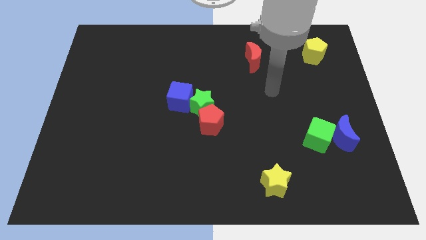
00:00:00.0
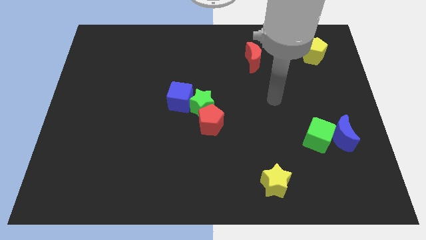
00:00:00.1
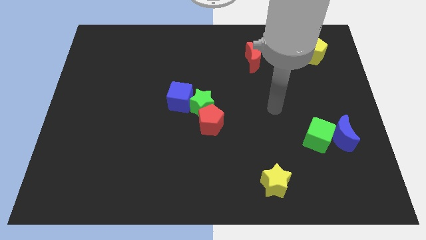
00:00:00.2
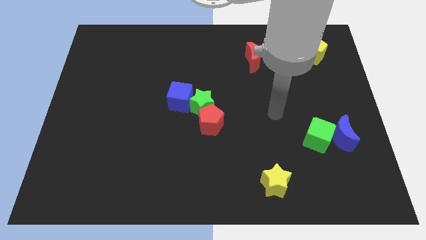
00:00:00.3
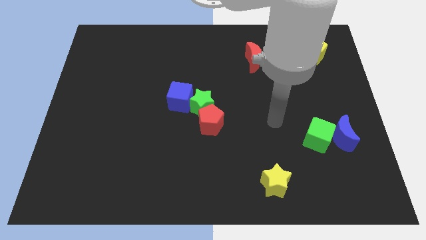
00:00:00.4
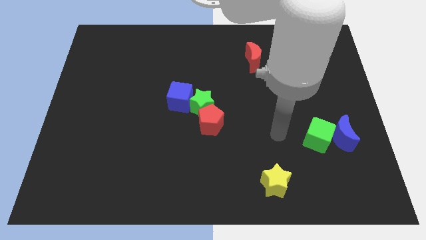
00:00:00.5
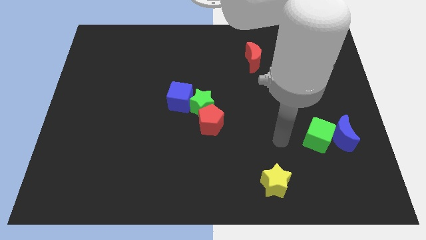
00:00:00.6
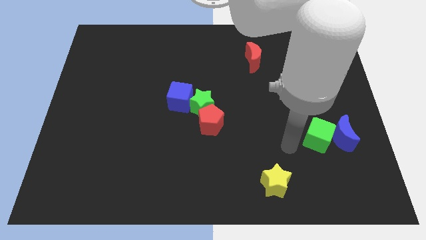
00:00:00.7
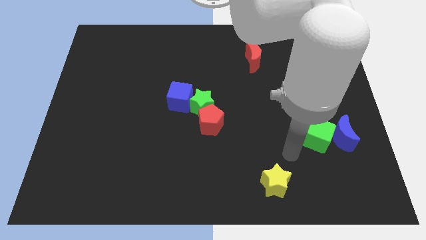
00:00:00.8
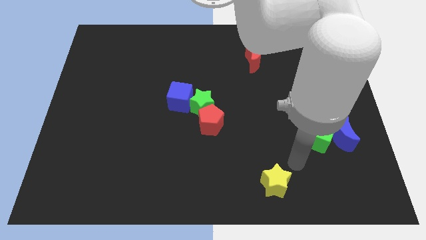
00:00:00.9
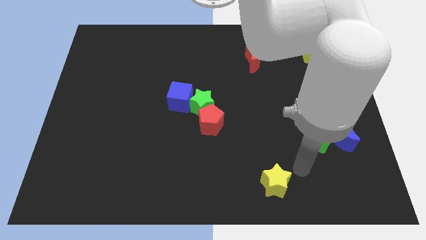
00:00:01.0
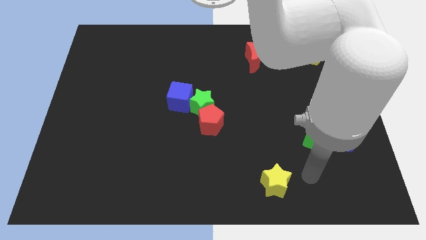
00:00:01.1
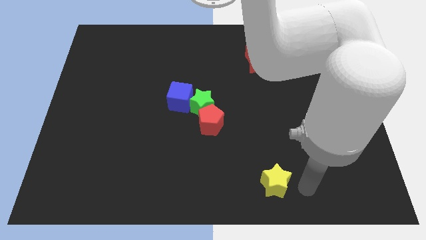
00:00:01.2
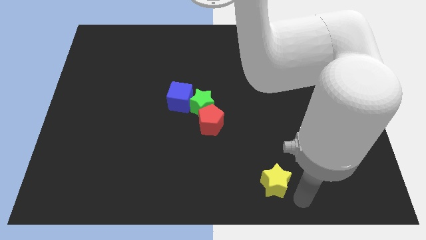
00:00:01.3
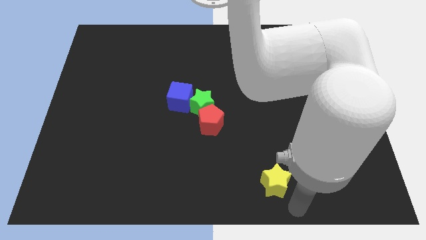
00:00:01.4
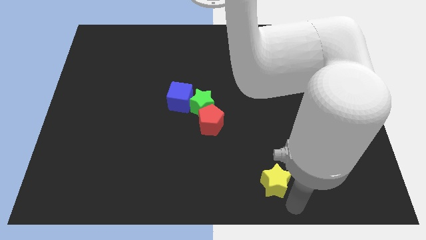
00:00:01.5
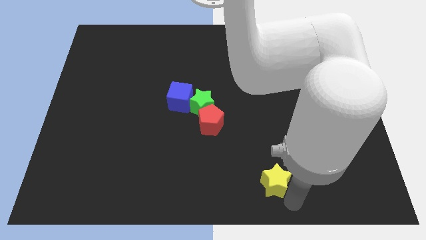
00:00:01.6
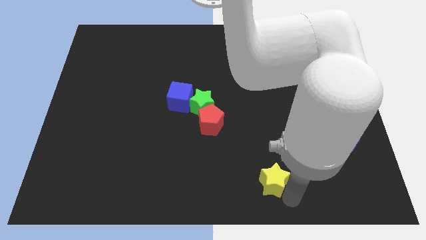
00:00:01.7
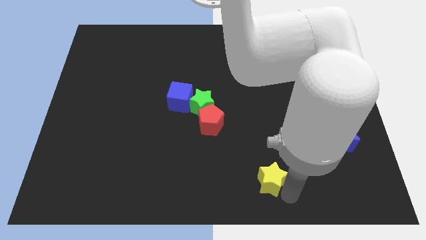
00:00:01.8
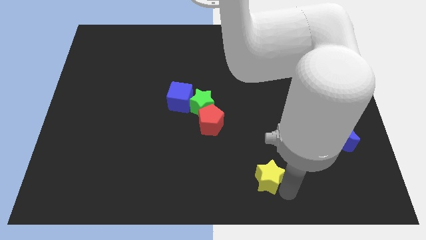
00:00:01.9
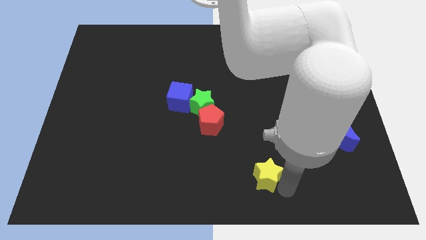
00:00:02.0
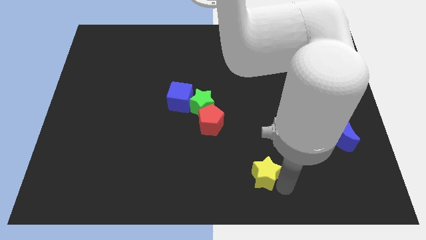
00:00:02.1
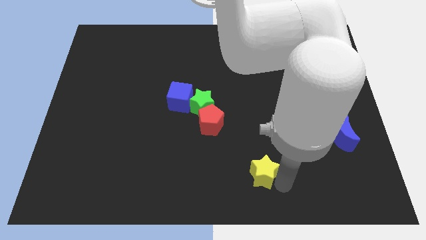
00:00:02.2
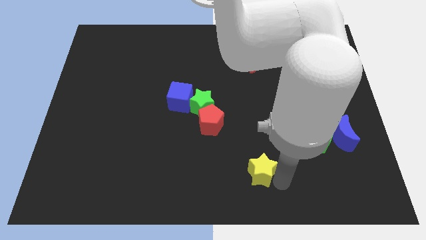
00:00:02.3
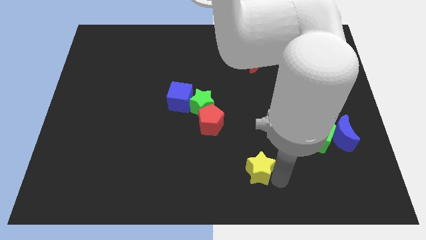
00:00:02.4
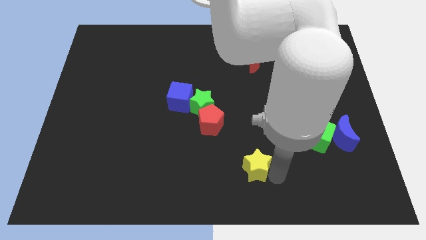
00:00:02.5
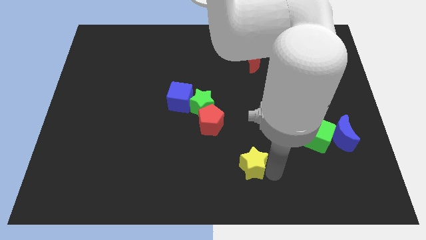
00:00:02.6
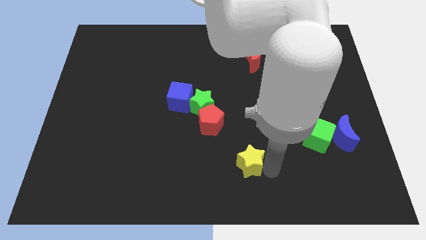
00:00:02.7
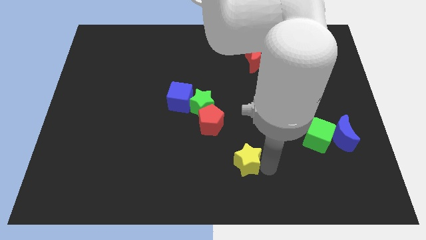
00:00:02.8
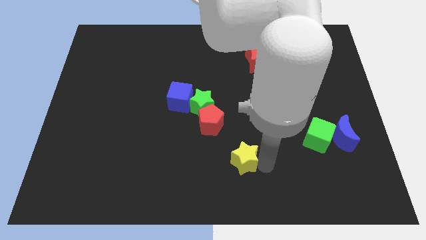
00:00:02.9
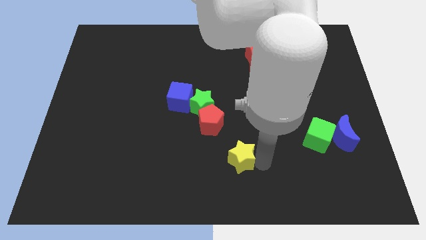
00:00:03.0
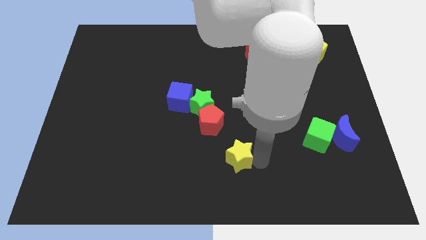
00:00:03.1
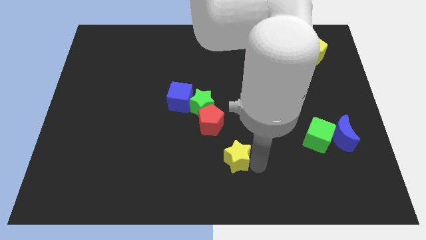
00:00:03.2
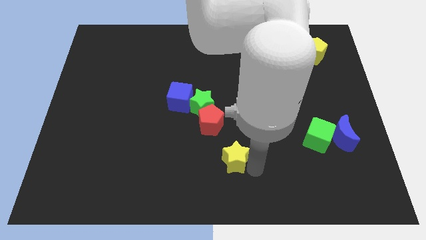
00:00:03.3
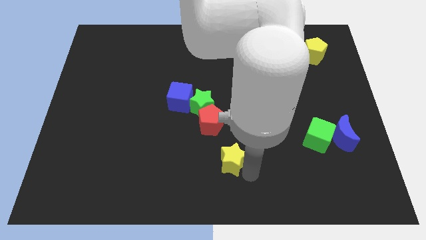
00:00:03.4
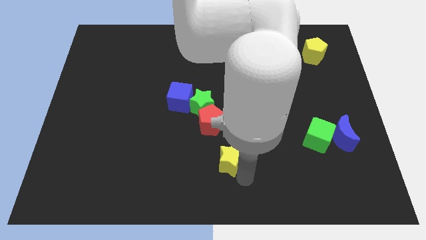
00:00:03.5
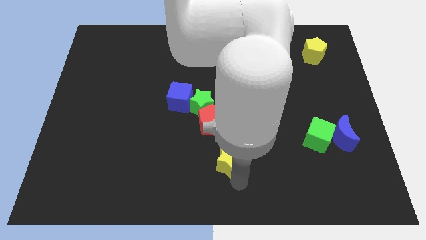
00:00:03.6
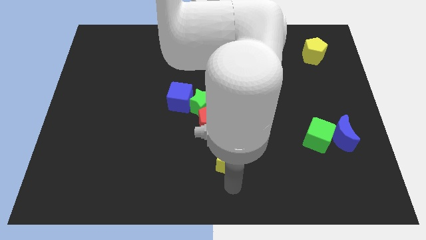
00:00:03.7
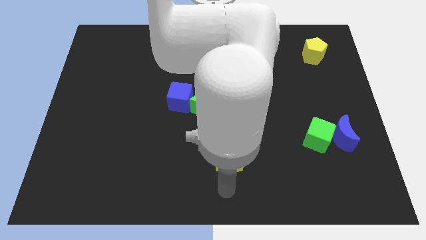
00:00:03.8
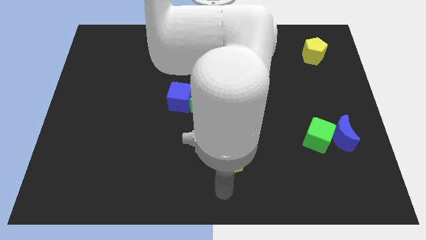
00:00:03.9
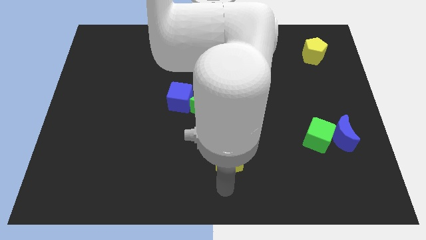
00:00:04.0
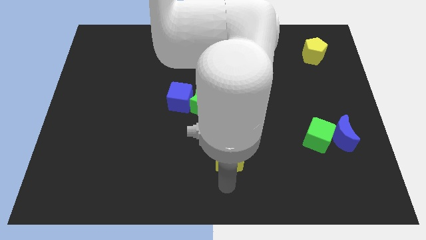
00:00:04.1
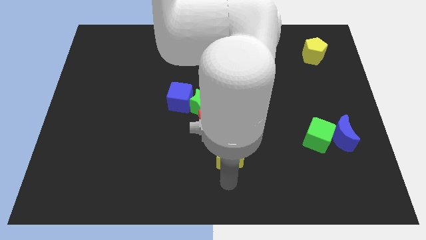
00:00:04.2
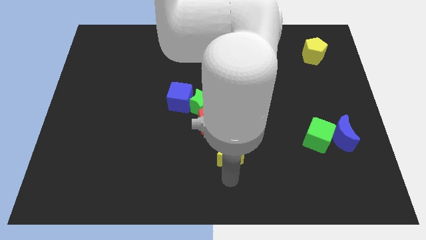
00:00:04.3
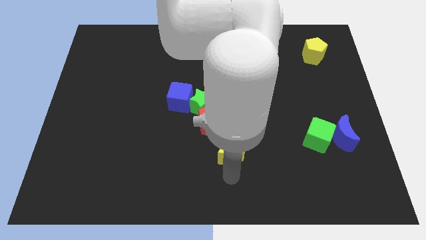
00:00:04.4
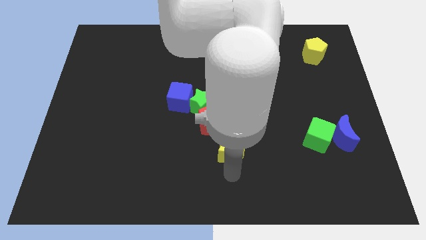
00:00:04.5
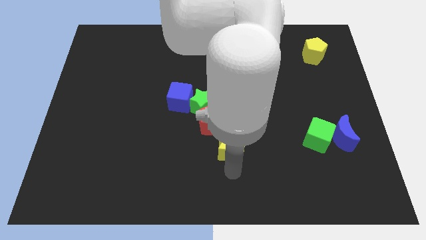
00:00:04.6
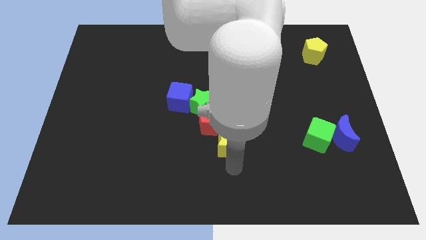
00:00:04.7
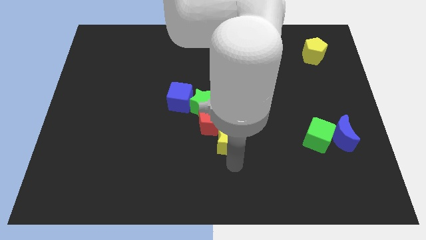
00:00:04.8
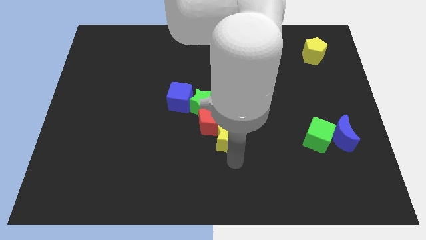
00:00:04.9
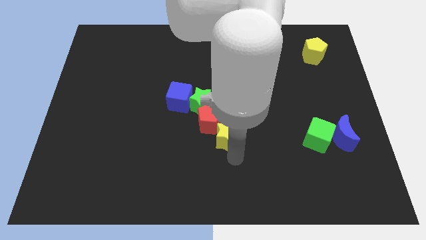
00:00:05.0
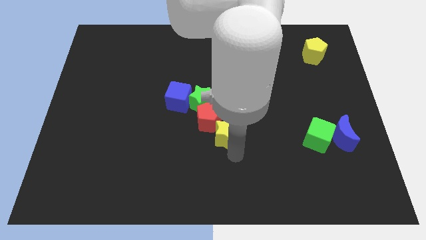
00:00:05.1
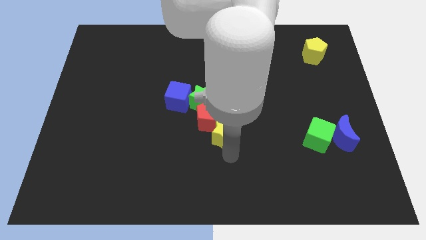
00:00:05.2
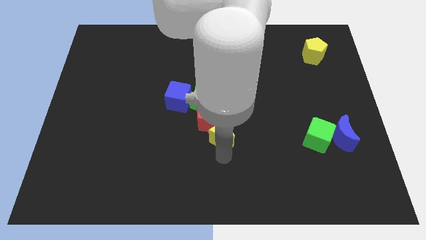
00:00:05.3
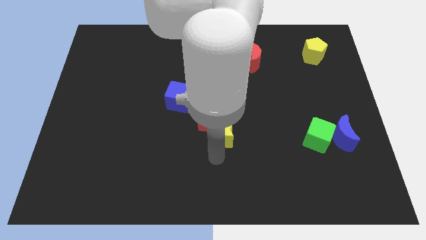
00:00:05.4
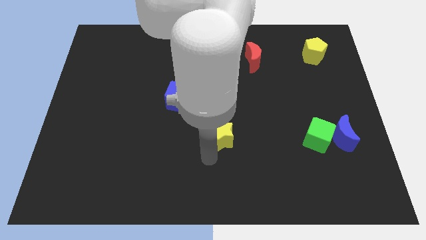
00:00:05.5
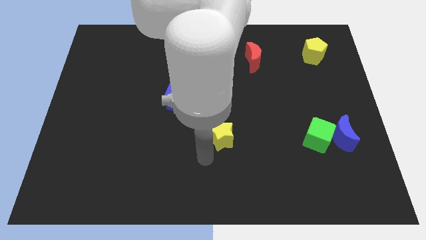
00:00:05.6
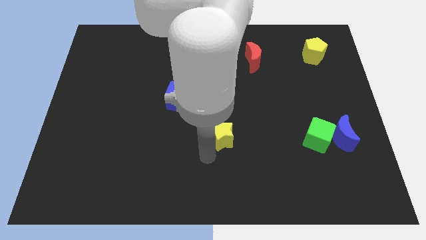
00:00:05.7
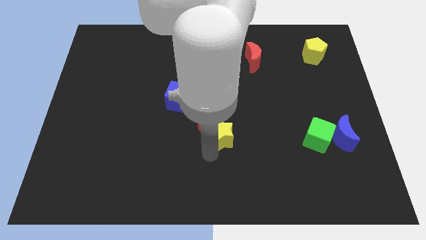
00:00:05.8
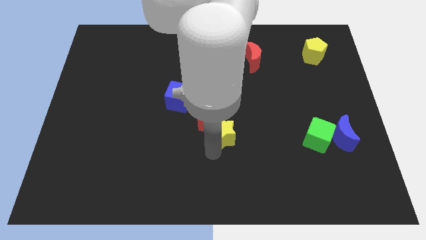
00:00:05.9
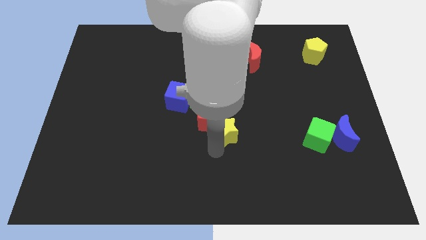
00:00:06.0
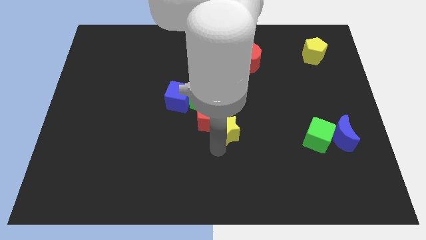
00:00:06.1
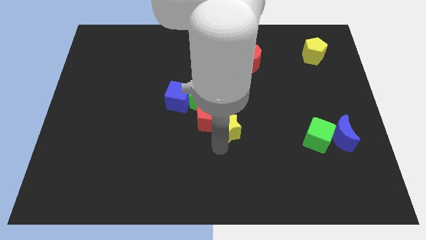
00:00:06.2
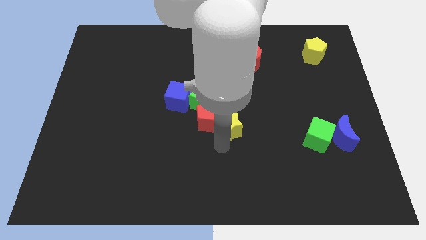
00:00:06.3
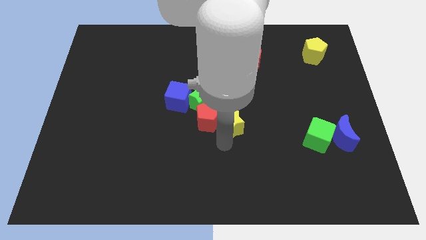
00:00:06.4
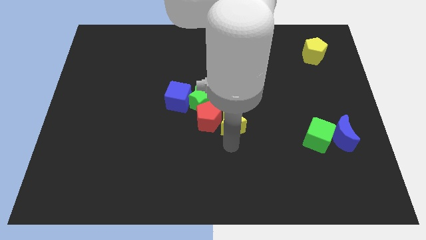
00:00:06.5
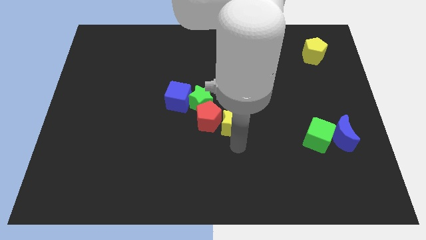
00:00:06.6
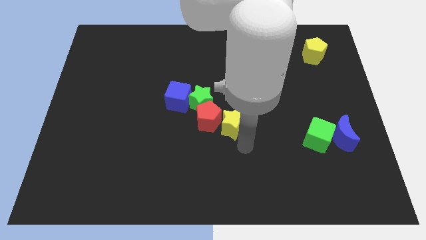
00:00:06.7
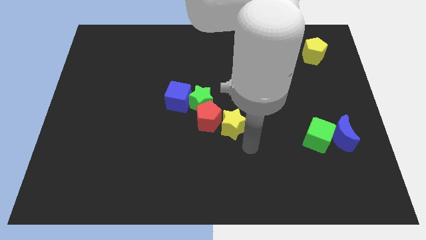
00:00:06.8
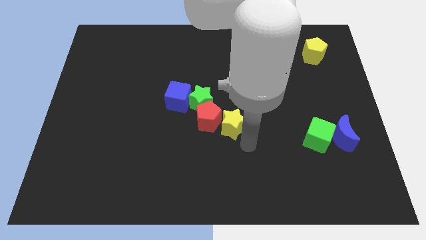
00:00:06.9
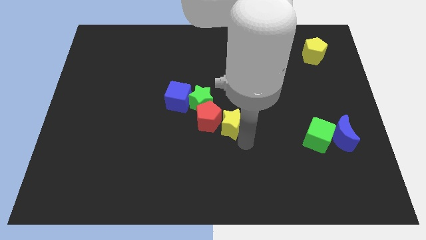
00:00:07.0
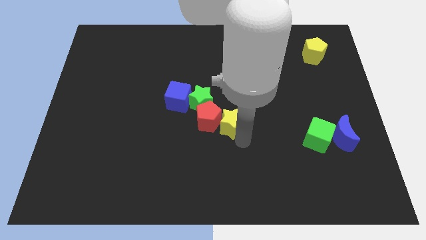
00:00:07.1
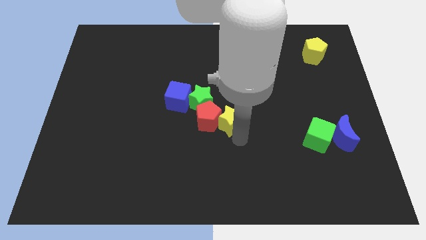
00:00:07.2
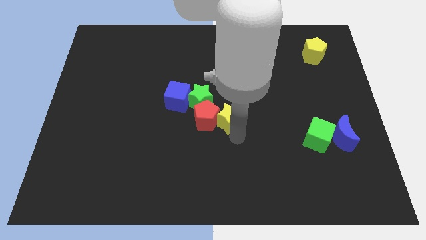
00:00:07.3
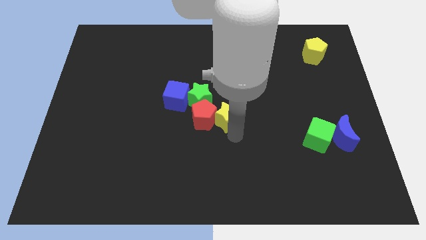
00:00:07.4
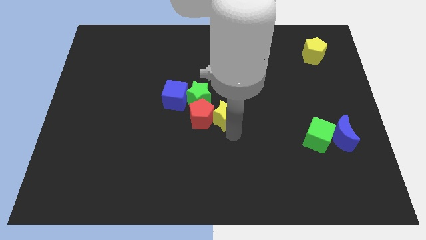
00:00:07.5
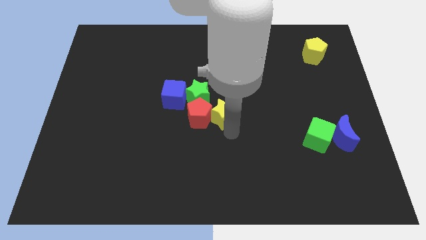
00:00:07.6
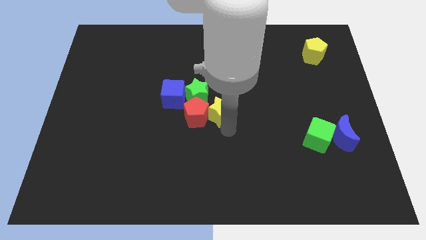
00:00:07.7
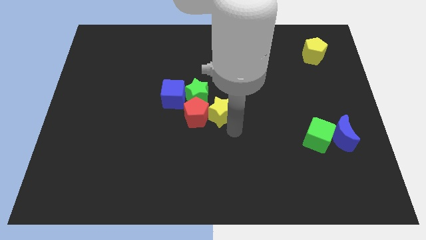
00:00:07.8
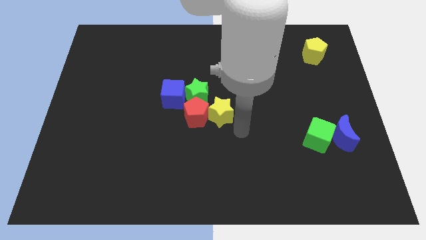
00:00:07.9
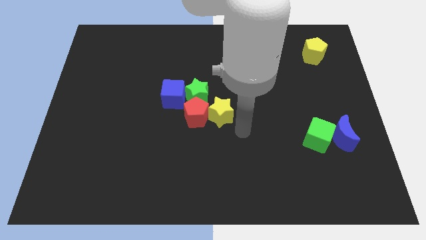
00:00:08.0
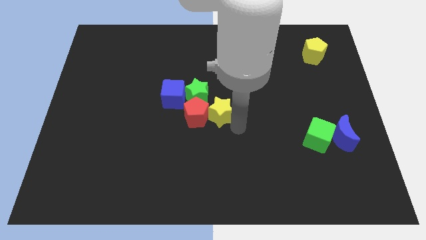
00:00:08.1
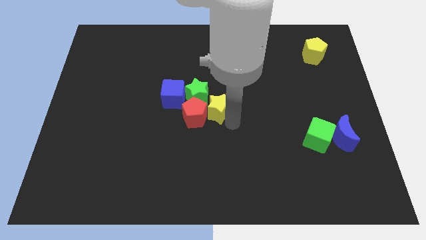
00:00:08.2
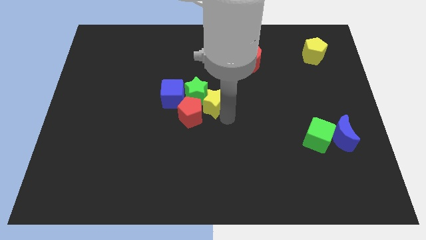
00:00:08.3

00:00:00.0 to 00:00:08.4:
slide the yellow star to the green star
